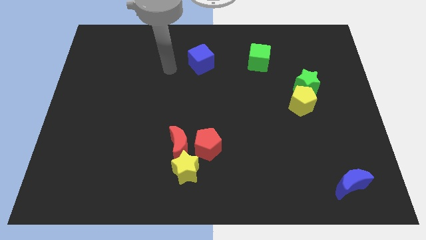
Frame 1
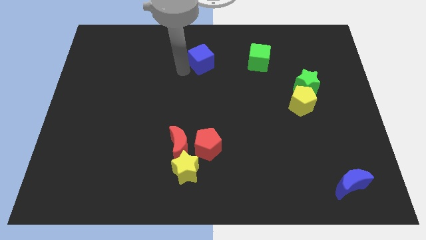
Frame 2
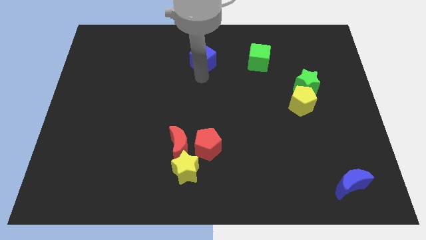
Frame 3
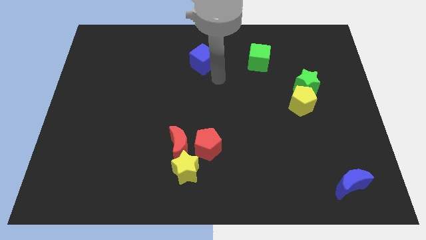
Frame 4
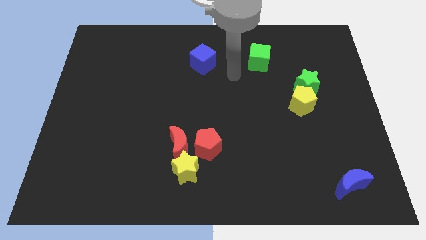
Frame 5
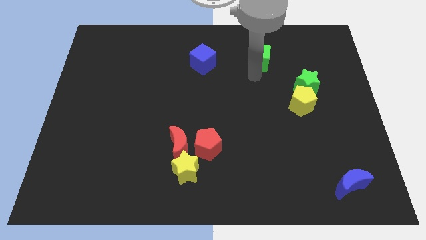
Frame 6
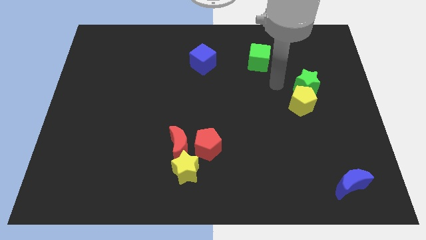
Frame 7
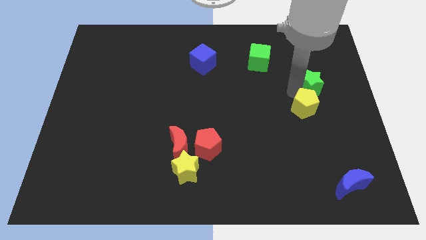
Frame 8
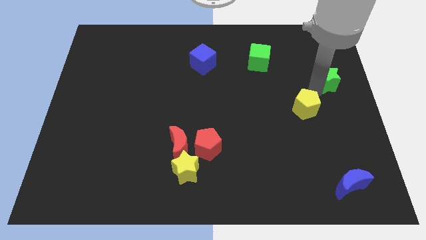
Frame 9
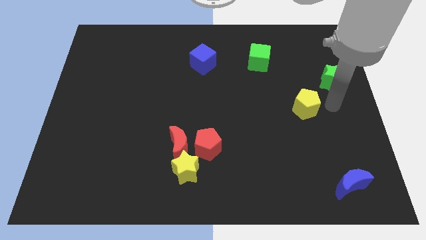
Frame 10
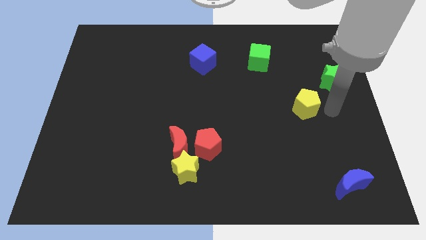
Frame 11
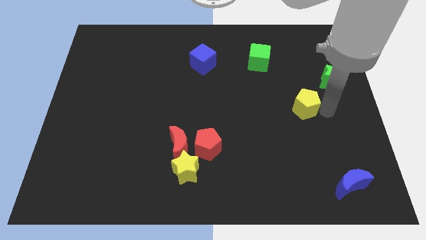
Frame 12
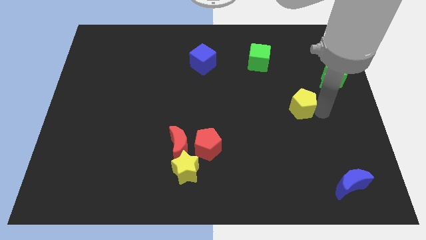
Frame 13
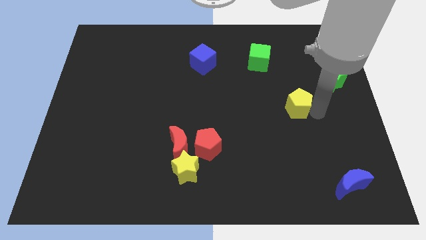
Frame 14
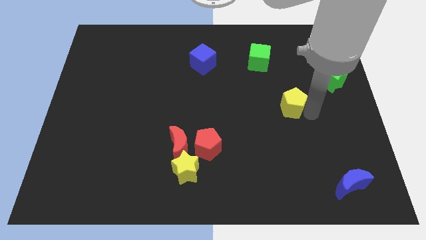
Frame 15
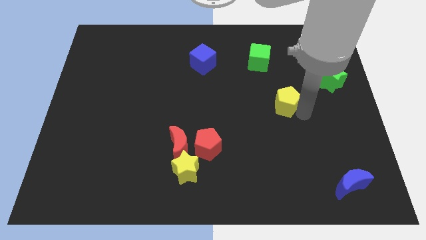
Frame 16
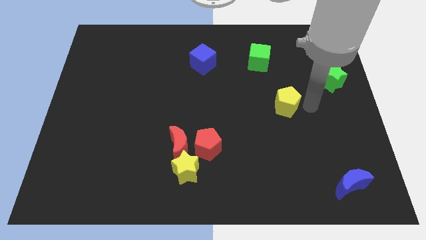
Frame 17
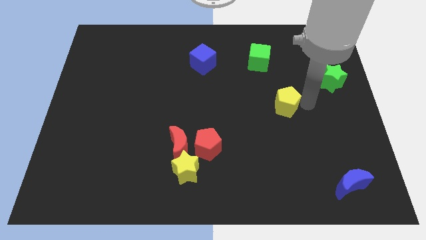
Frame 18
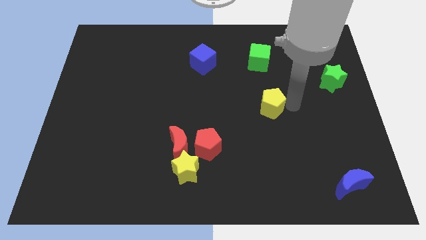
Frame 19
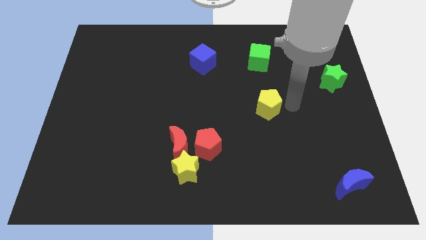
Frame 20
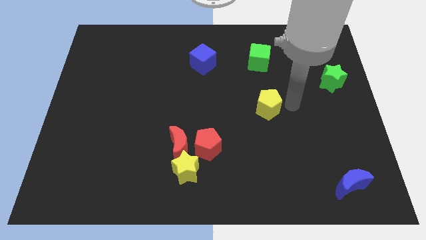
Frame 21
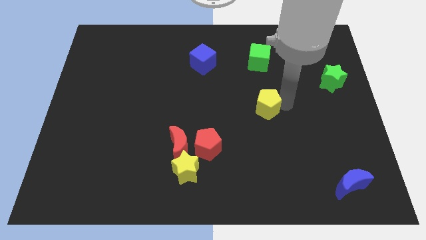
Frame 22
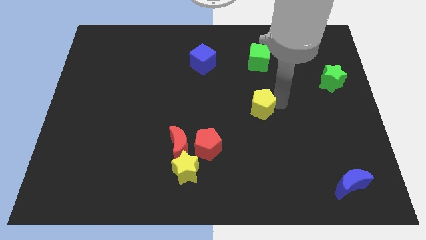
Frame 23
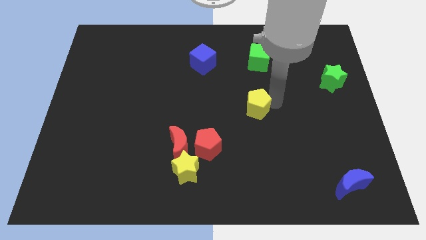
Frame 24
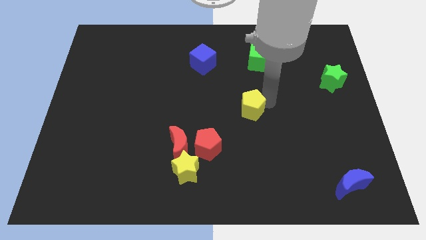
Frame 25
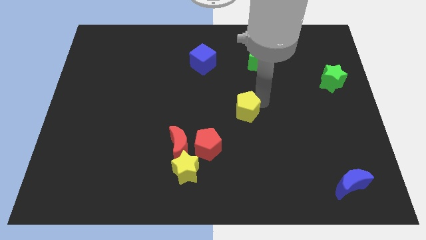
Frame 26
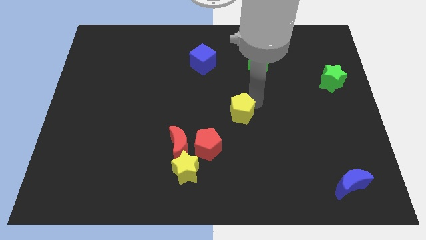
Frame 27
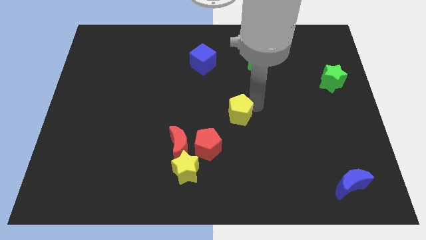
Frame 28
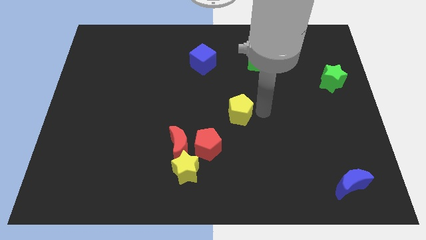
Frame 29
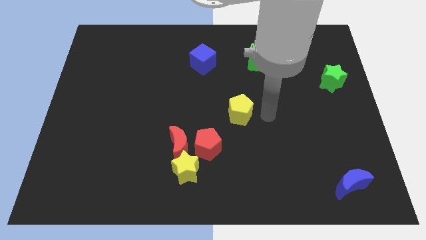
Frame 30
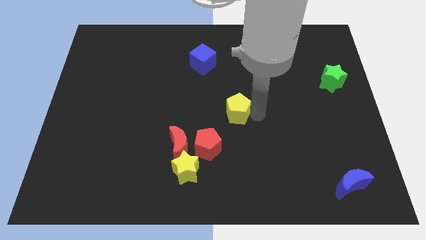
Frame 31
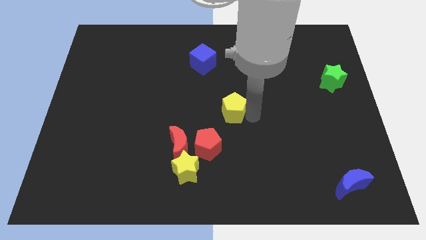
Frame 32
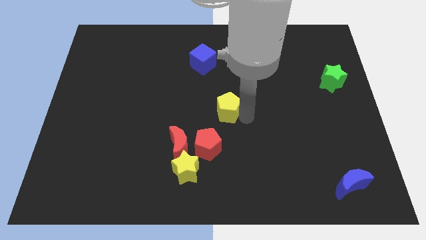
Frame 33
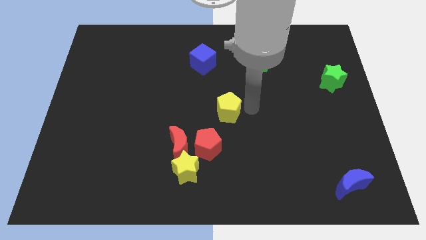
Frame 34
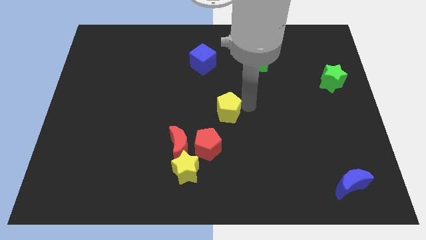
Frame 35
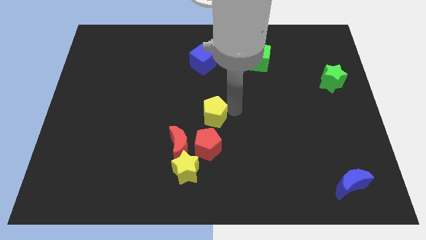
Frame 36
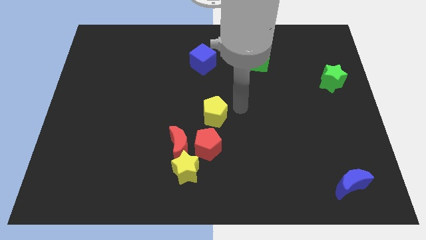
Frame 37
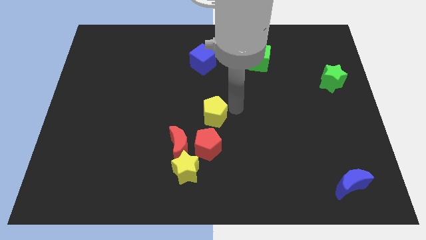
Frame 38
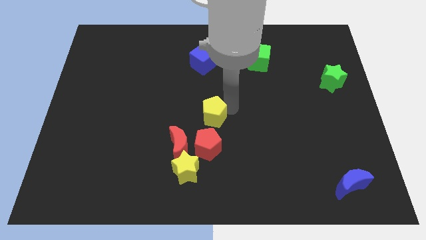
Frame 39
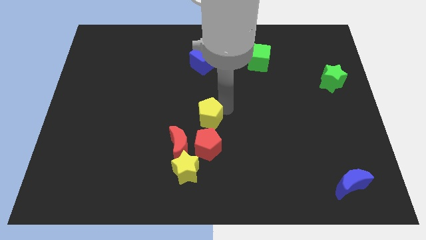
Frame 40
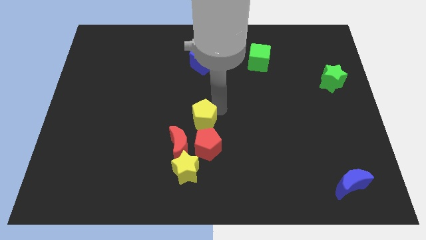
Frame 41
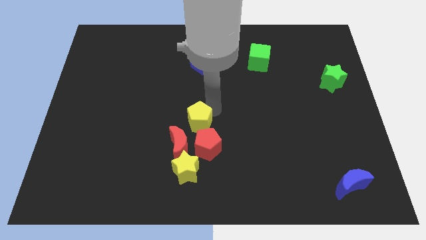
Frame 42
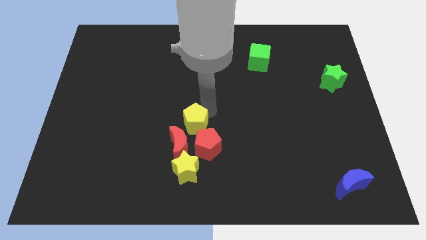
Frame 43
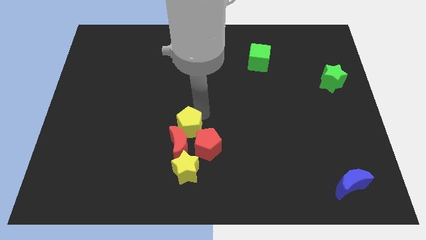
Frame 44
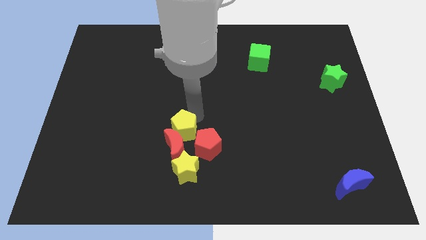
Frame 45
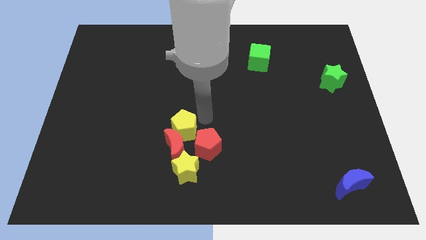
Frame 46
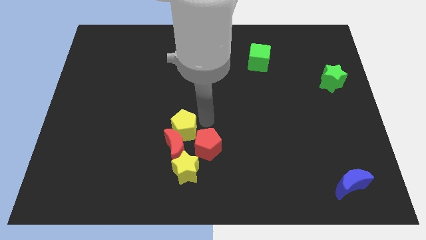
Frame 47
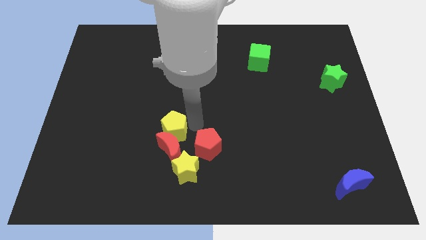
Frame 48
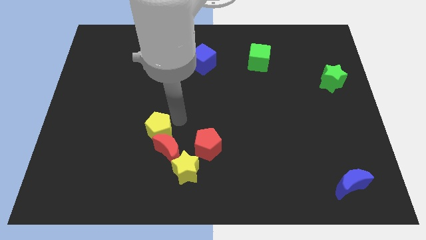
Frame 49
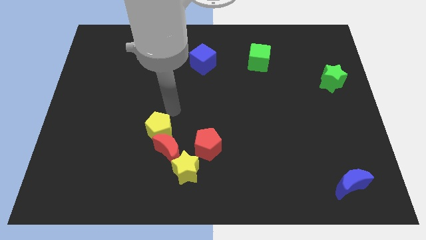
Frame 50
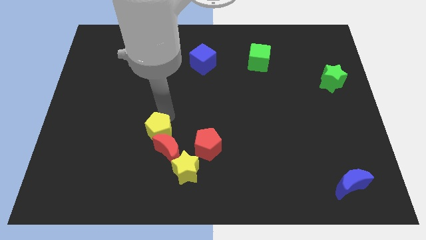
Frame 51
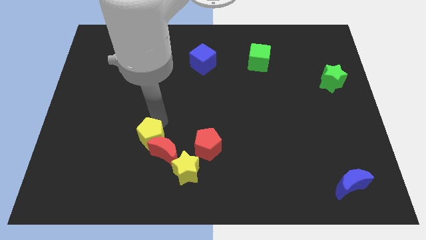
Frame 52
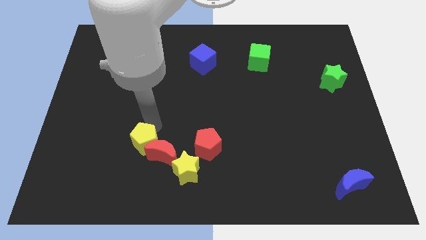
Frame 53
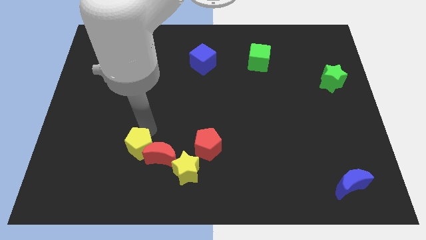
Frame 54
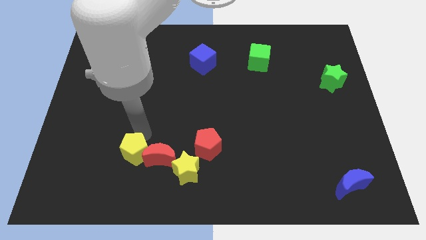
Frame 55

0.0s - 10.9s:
put the yellow pentagon left of the yellow star
